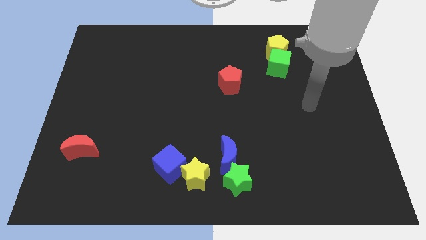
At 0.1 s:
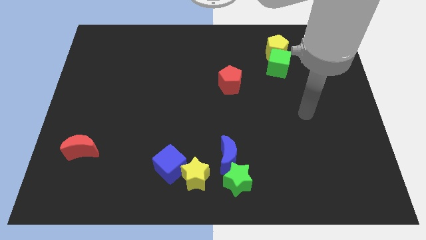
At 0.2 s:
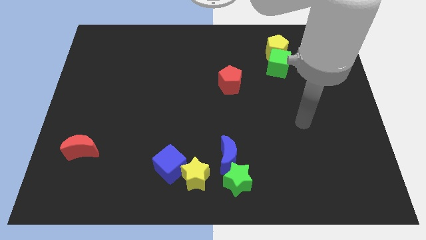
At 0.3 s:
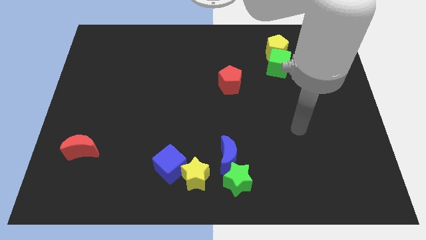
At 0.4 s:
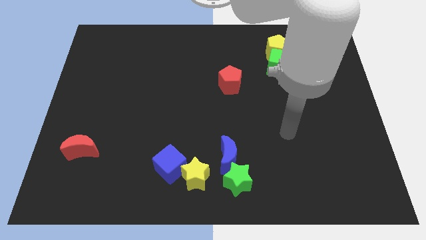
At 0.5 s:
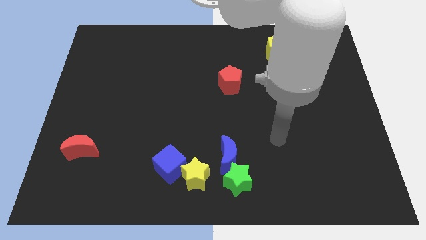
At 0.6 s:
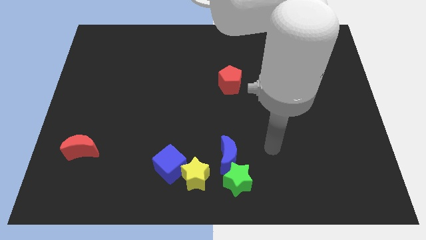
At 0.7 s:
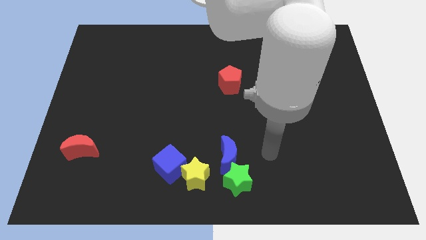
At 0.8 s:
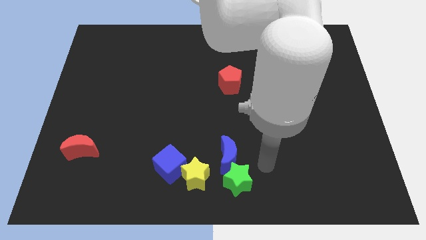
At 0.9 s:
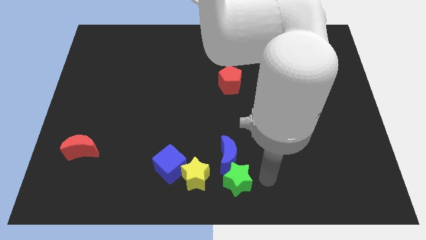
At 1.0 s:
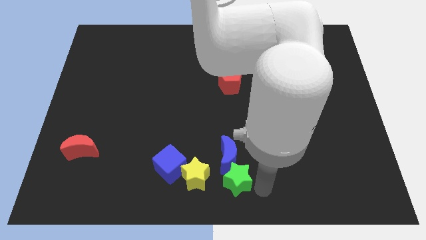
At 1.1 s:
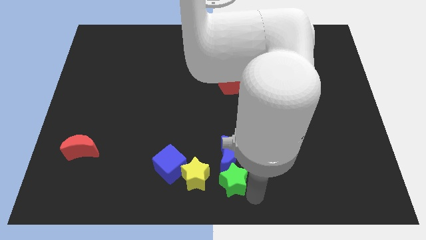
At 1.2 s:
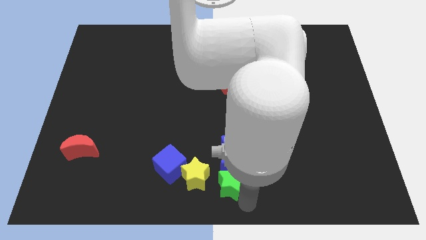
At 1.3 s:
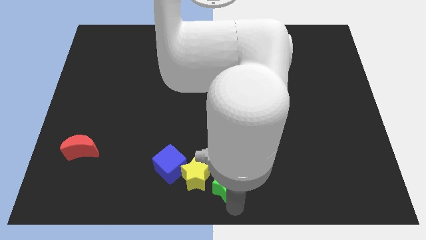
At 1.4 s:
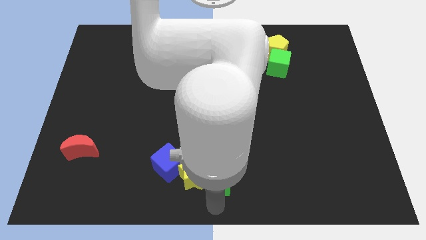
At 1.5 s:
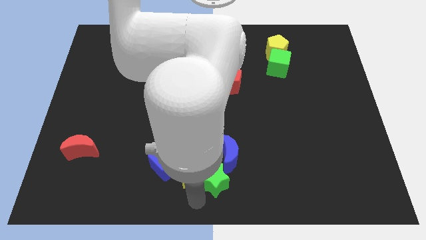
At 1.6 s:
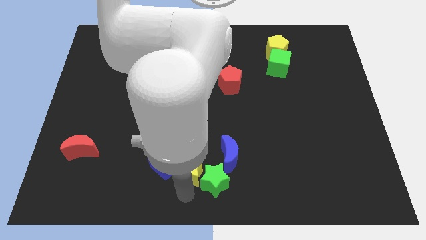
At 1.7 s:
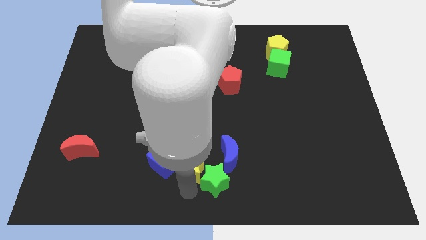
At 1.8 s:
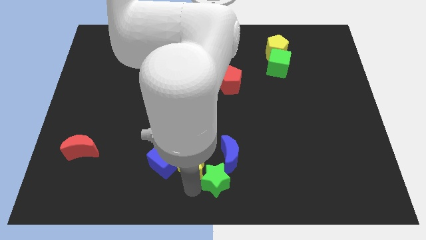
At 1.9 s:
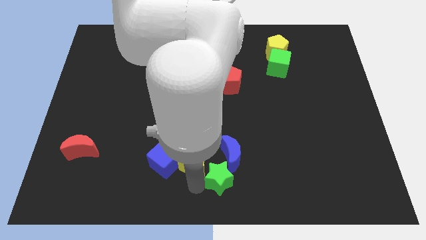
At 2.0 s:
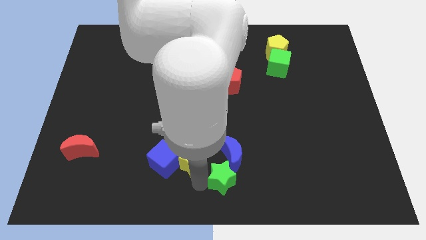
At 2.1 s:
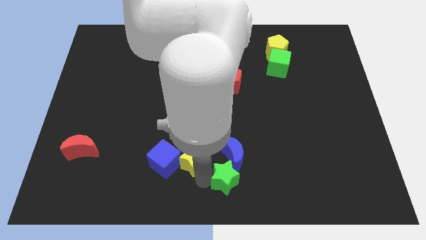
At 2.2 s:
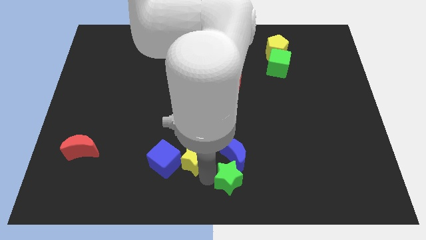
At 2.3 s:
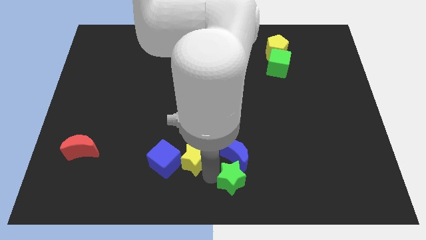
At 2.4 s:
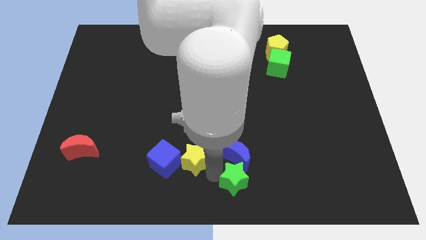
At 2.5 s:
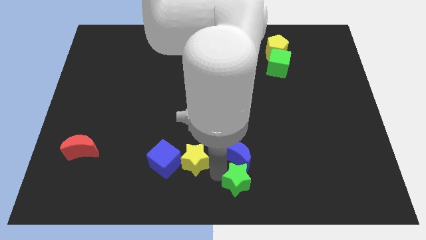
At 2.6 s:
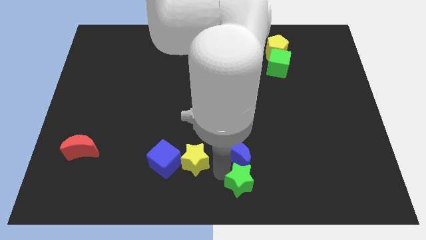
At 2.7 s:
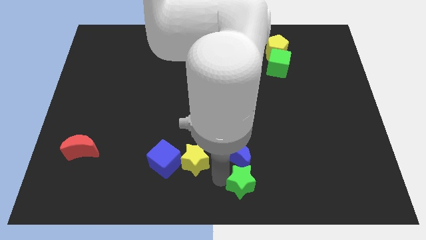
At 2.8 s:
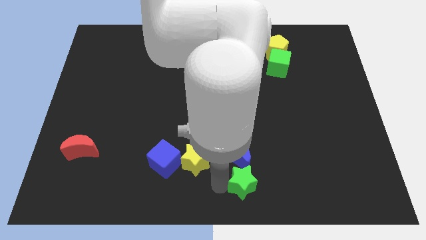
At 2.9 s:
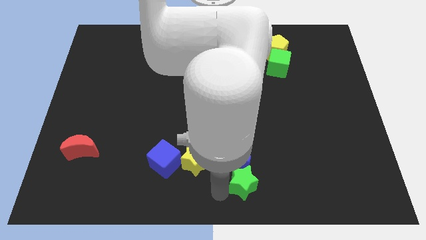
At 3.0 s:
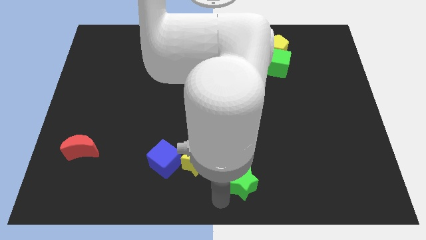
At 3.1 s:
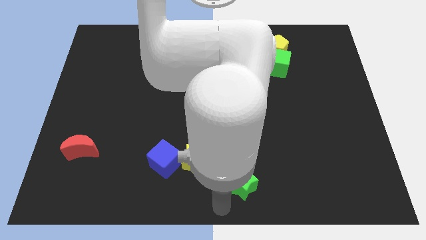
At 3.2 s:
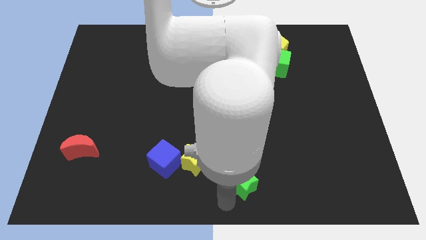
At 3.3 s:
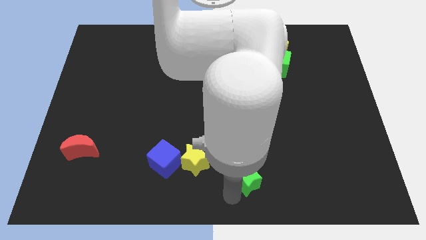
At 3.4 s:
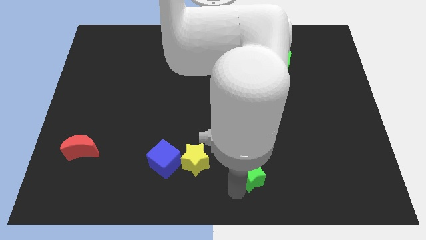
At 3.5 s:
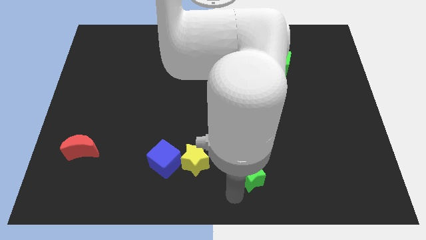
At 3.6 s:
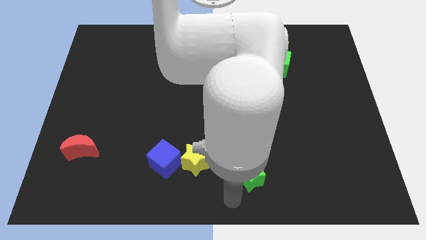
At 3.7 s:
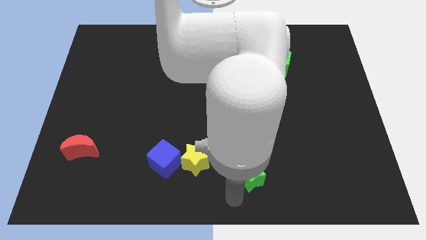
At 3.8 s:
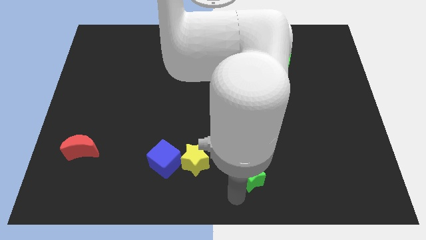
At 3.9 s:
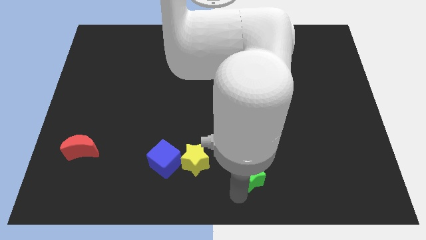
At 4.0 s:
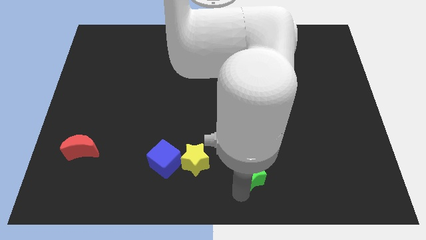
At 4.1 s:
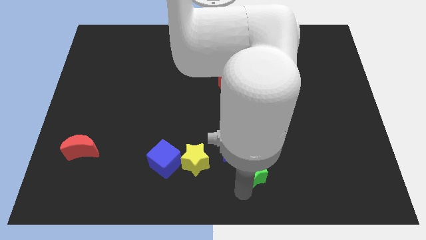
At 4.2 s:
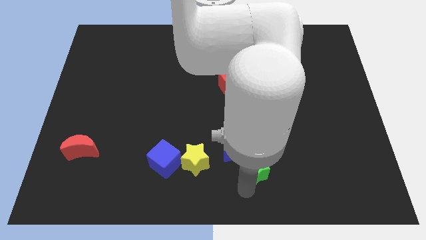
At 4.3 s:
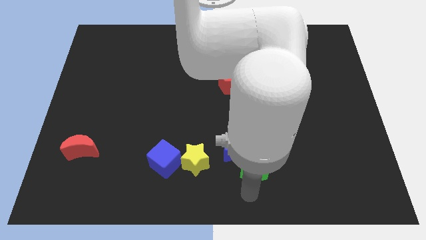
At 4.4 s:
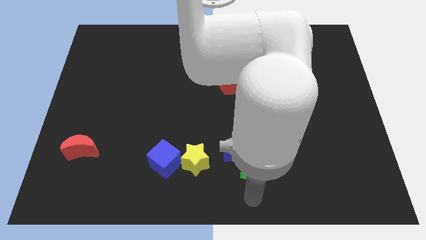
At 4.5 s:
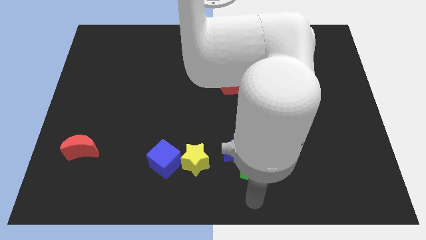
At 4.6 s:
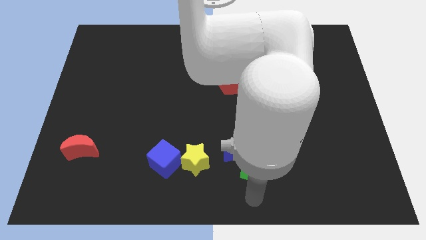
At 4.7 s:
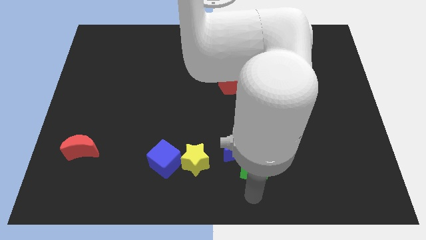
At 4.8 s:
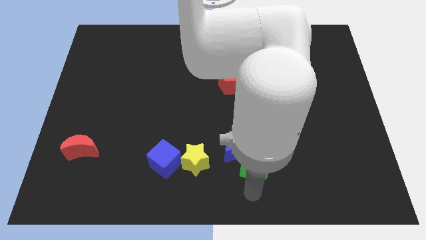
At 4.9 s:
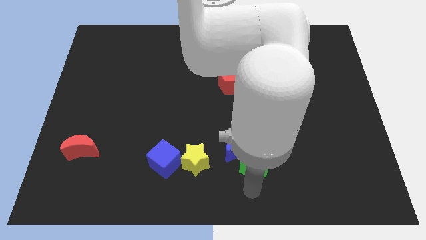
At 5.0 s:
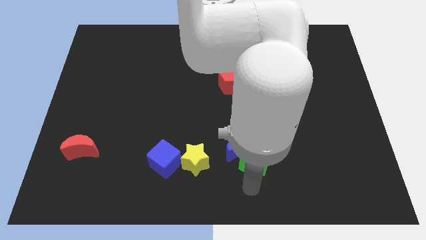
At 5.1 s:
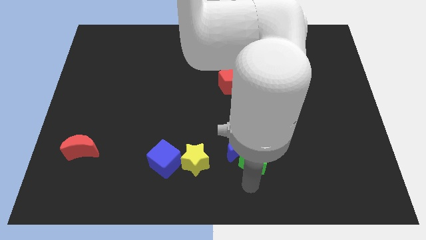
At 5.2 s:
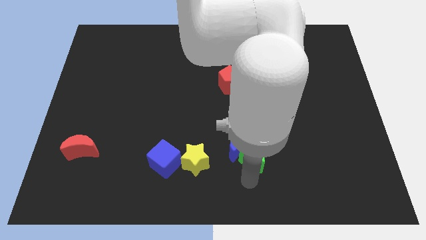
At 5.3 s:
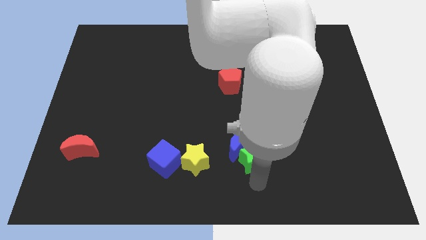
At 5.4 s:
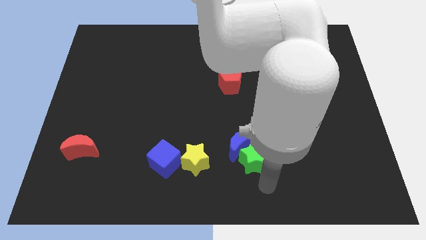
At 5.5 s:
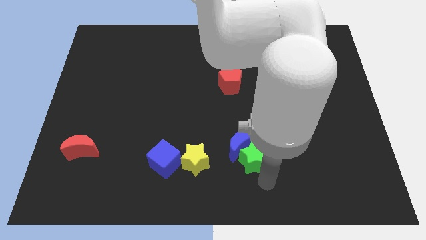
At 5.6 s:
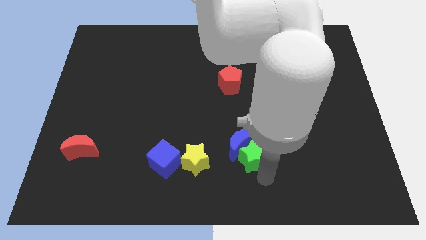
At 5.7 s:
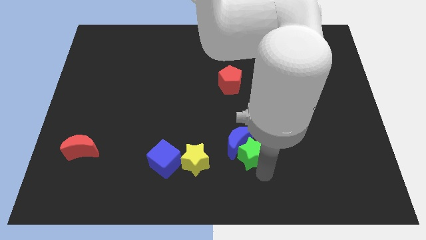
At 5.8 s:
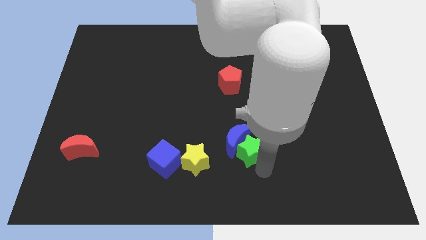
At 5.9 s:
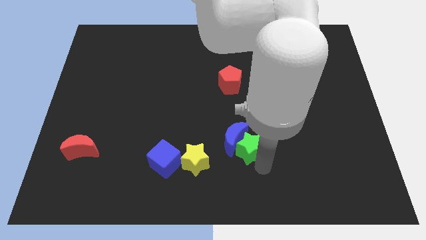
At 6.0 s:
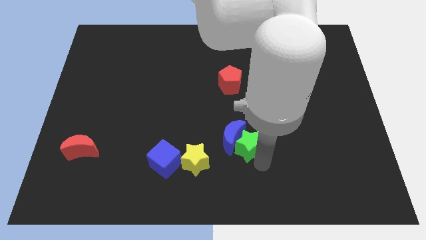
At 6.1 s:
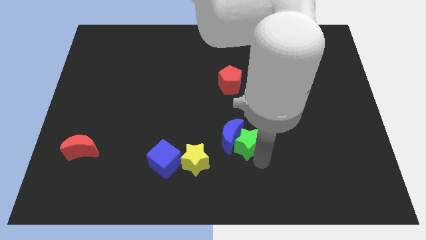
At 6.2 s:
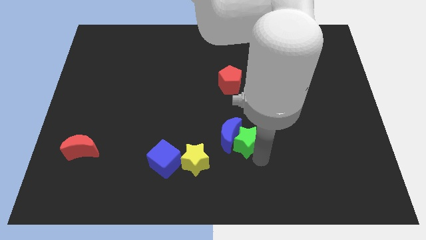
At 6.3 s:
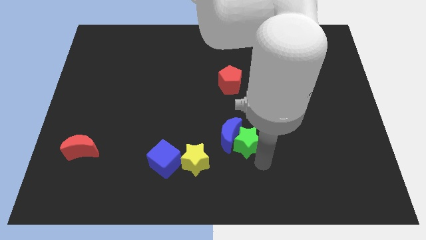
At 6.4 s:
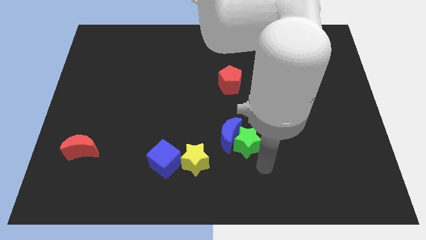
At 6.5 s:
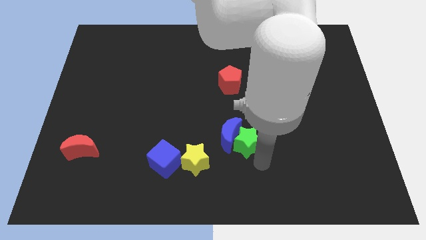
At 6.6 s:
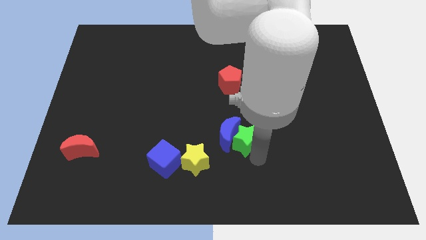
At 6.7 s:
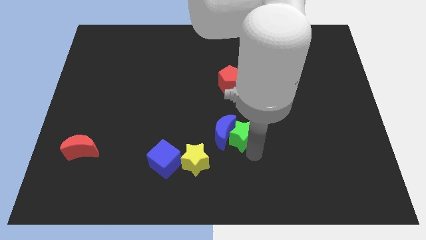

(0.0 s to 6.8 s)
slide the green star to the center

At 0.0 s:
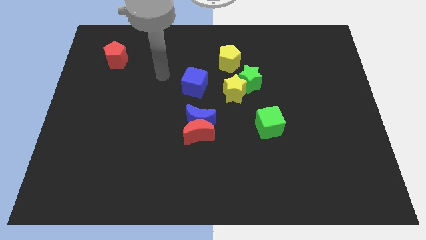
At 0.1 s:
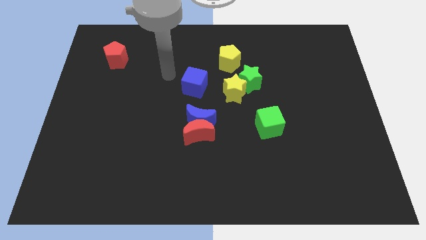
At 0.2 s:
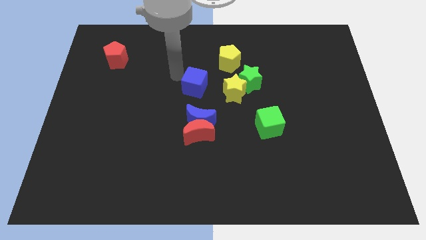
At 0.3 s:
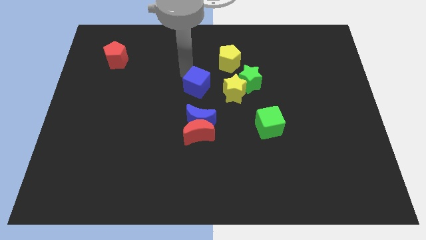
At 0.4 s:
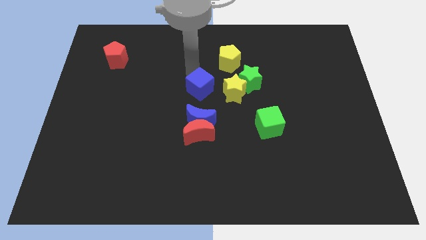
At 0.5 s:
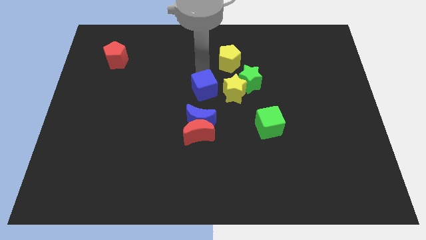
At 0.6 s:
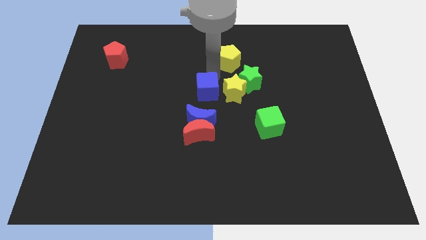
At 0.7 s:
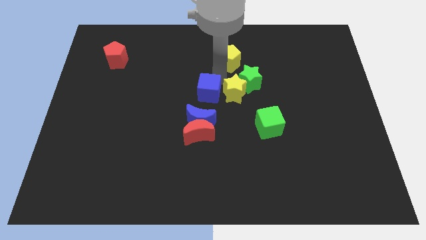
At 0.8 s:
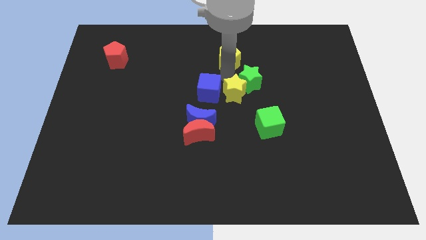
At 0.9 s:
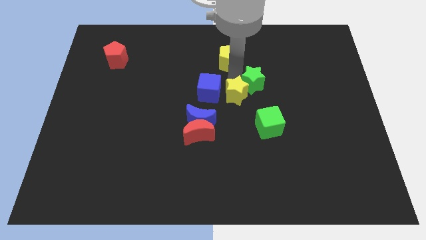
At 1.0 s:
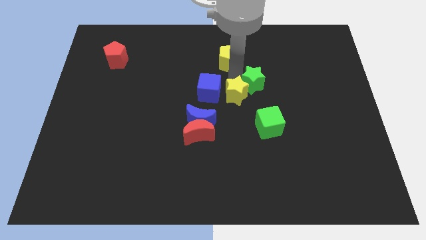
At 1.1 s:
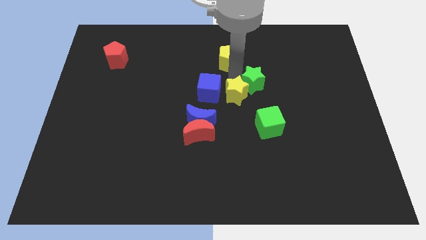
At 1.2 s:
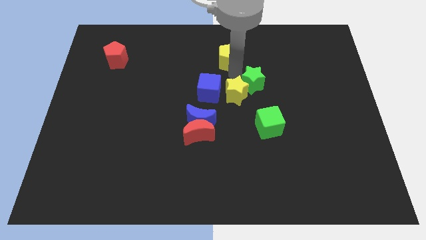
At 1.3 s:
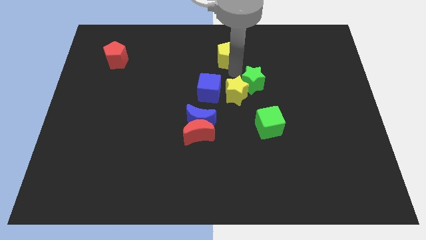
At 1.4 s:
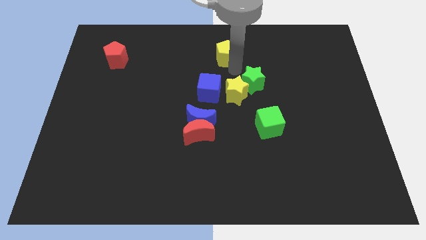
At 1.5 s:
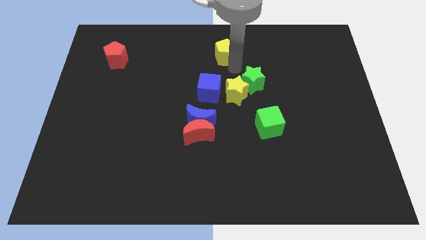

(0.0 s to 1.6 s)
push the yellow pentagon to the top
